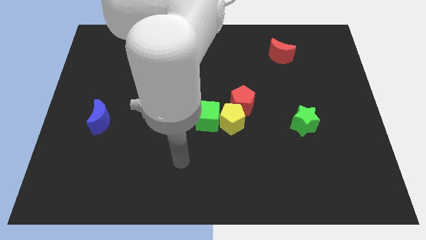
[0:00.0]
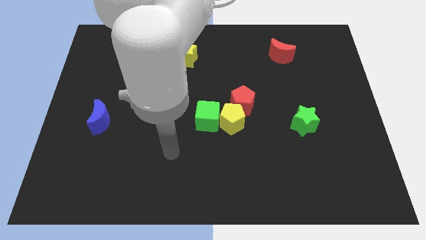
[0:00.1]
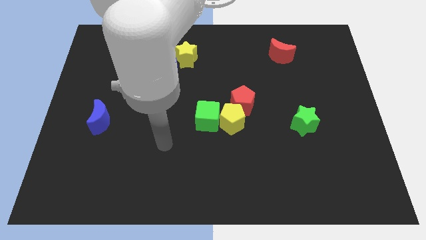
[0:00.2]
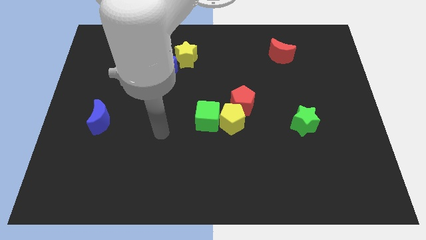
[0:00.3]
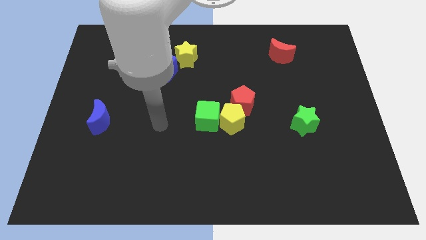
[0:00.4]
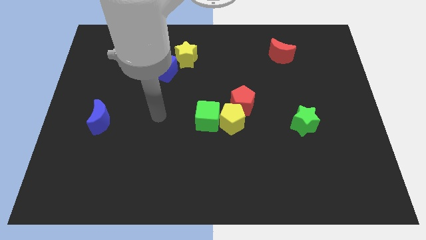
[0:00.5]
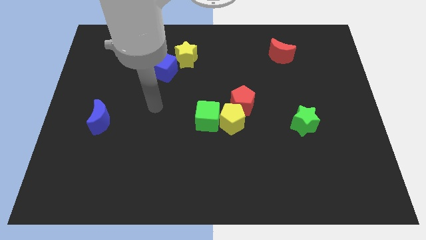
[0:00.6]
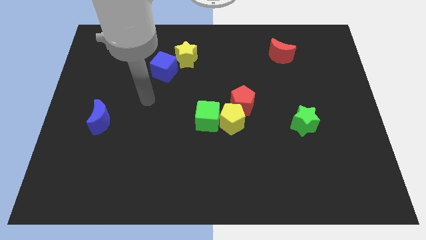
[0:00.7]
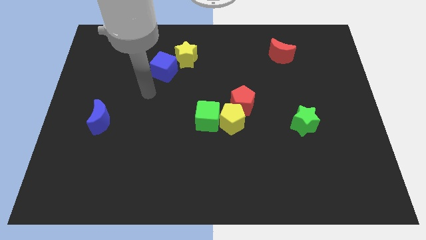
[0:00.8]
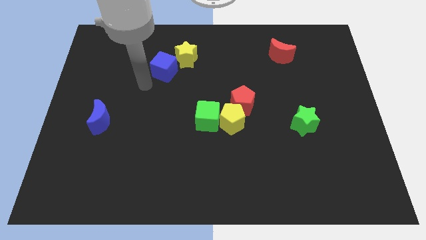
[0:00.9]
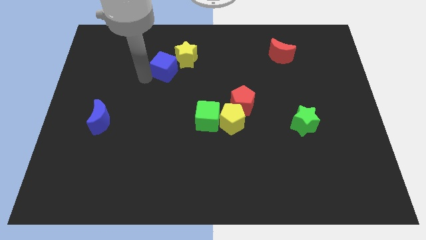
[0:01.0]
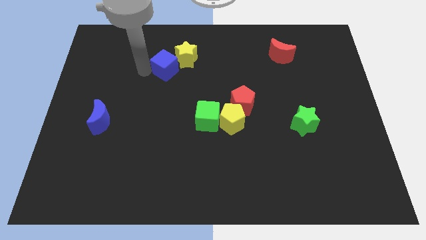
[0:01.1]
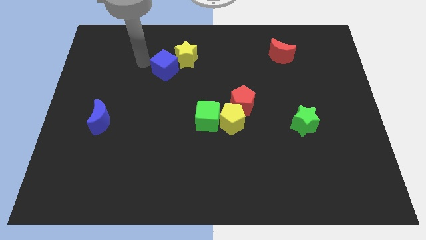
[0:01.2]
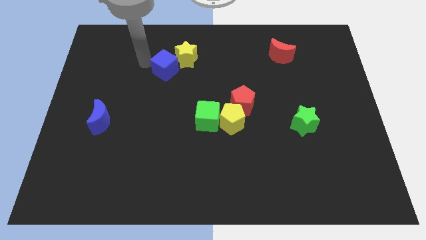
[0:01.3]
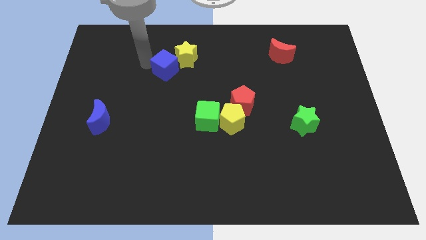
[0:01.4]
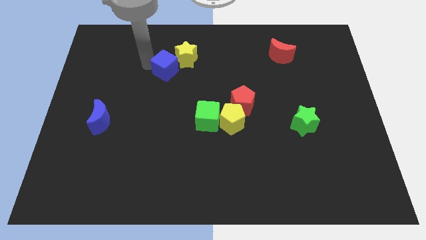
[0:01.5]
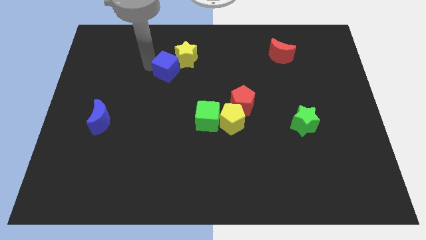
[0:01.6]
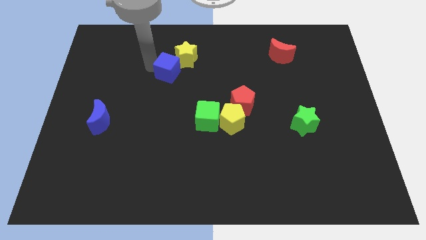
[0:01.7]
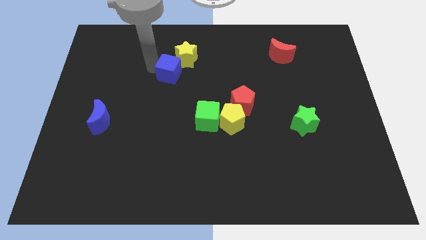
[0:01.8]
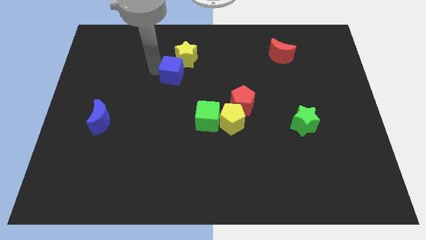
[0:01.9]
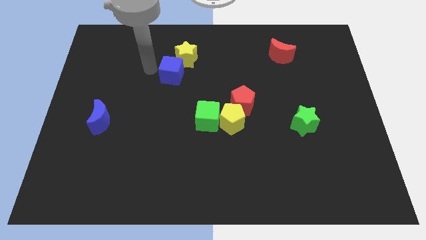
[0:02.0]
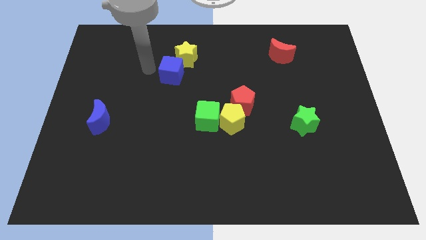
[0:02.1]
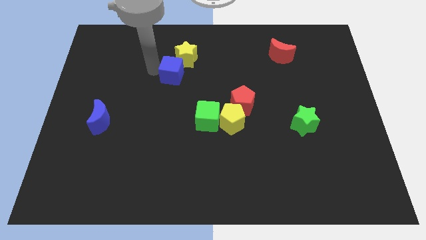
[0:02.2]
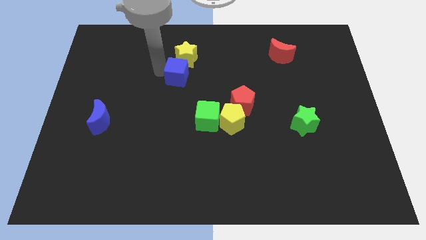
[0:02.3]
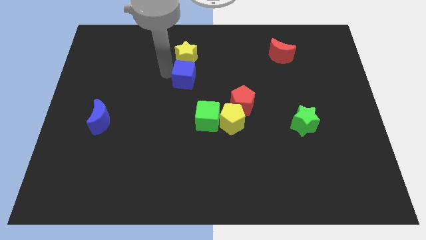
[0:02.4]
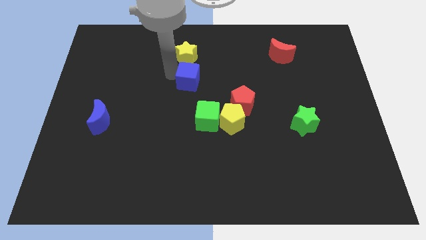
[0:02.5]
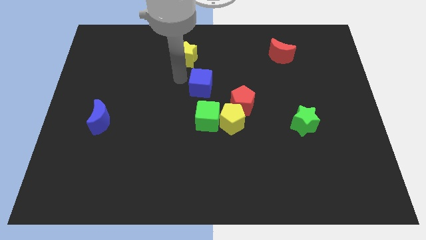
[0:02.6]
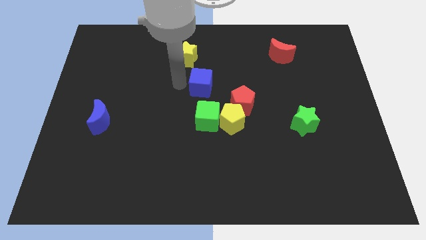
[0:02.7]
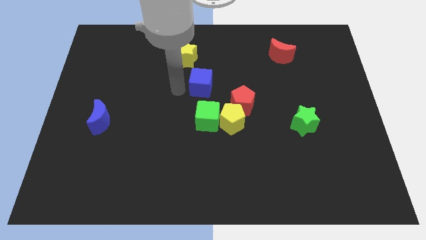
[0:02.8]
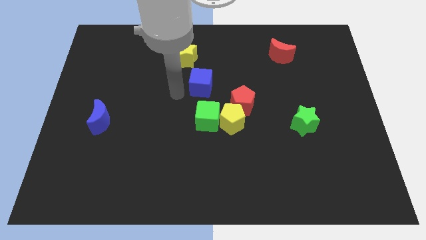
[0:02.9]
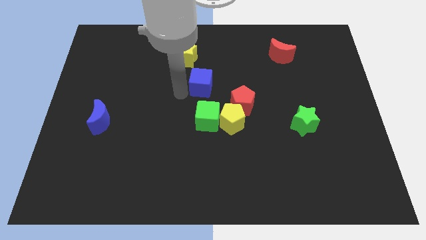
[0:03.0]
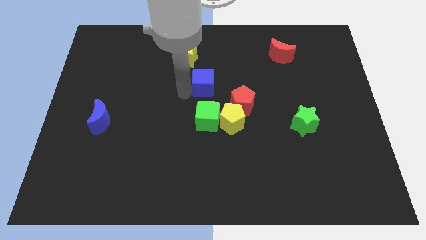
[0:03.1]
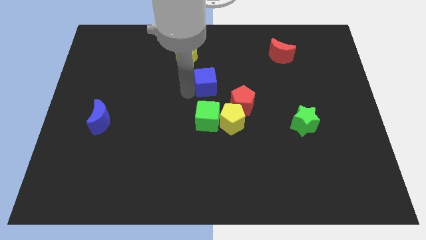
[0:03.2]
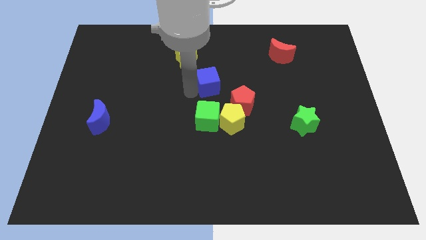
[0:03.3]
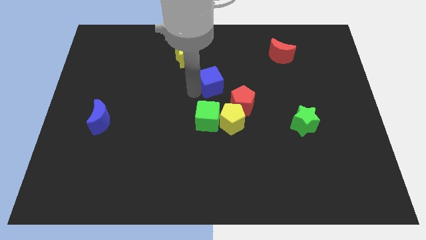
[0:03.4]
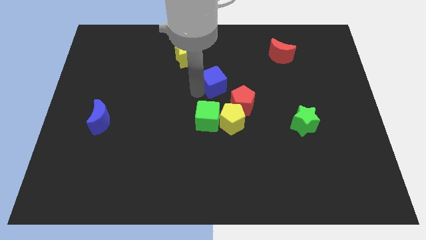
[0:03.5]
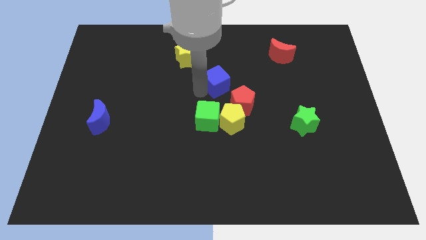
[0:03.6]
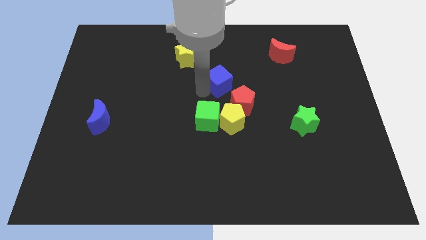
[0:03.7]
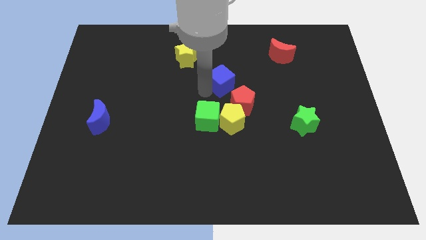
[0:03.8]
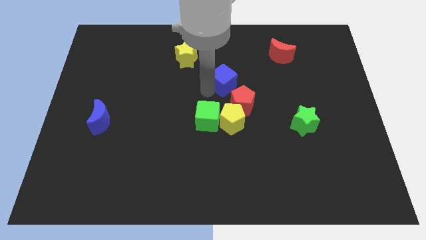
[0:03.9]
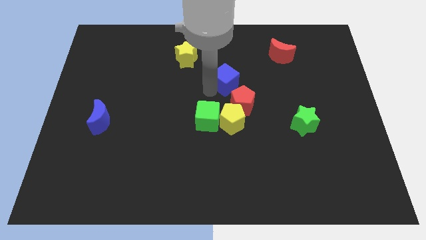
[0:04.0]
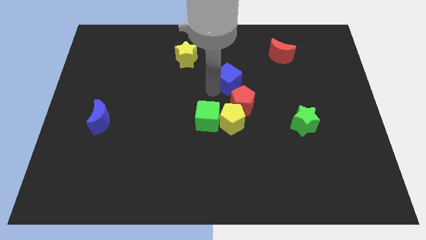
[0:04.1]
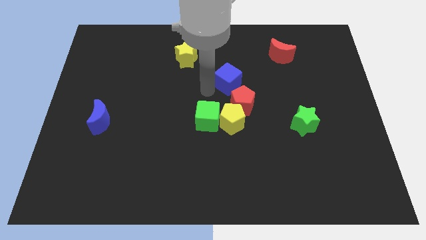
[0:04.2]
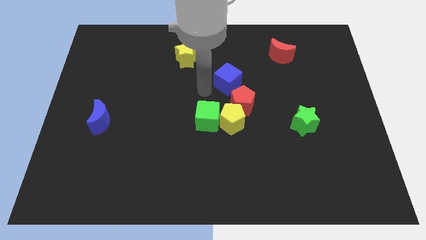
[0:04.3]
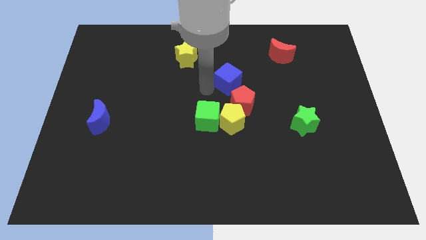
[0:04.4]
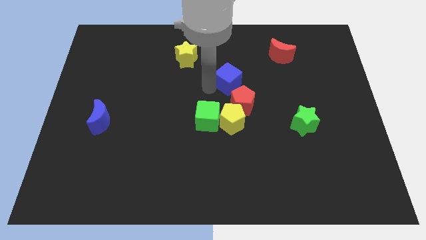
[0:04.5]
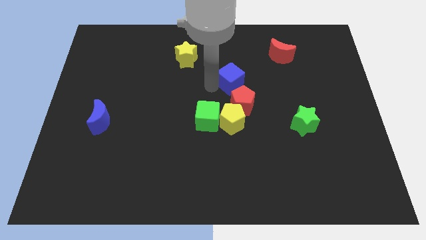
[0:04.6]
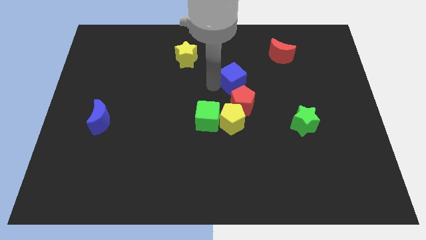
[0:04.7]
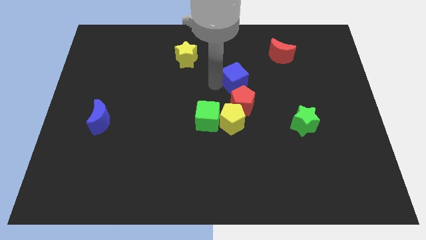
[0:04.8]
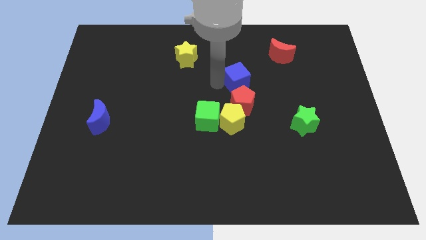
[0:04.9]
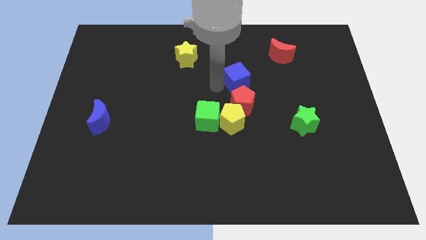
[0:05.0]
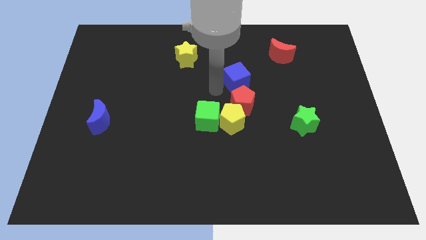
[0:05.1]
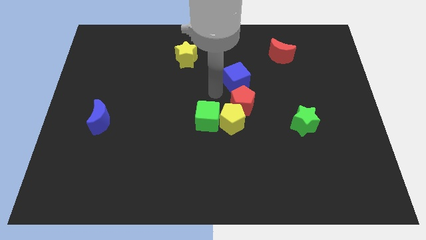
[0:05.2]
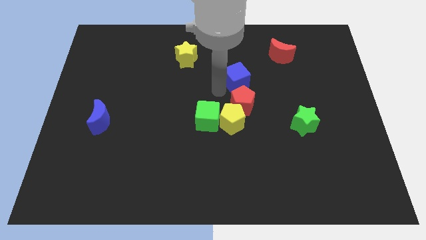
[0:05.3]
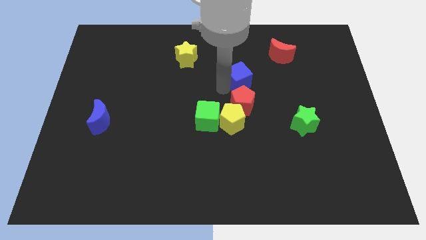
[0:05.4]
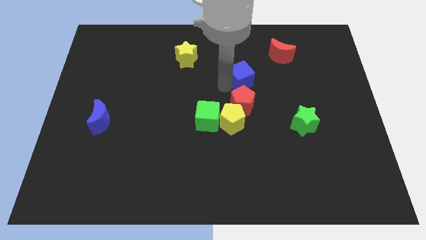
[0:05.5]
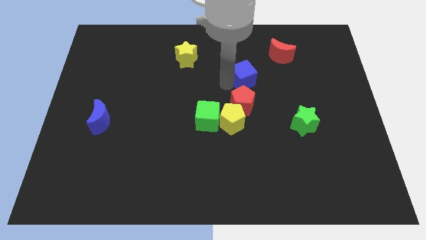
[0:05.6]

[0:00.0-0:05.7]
push the blue cube to the right

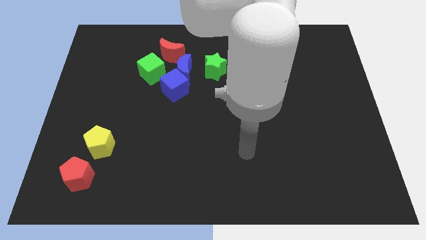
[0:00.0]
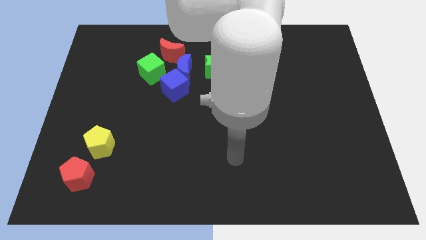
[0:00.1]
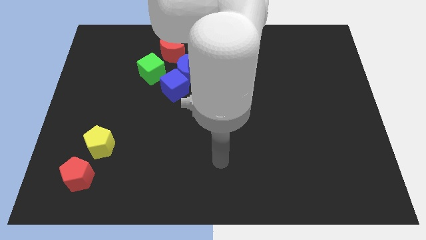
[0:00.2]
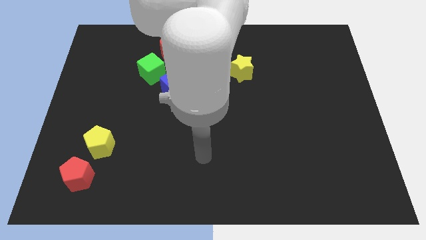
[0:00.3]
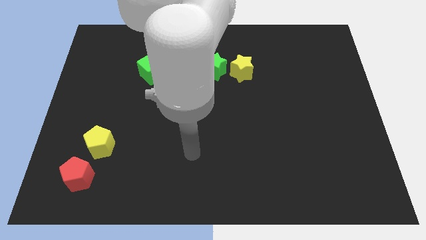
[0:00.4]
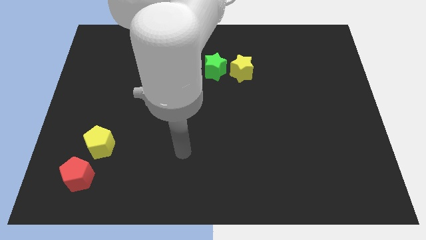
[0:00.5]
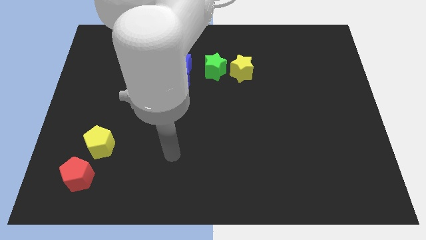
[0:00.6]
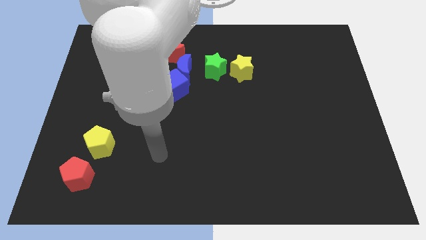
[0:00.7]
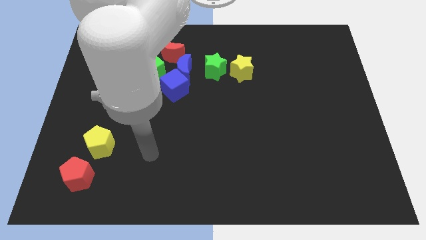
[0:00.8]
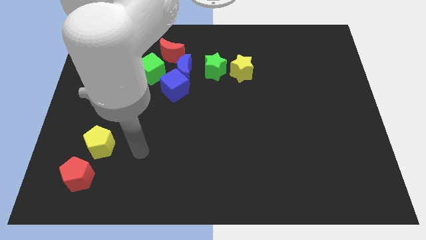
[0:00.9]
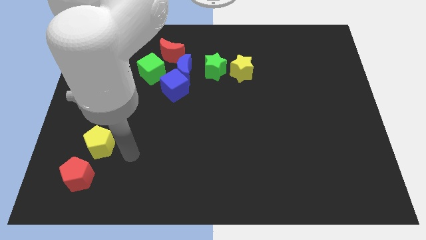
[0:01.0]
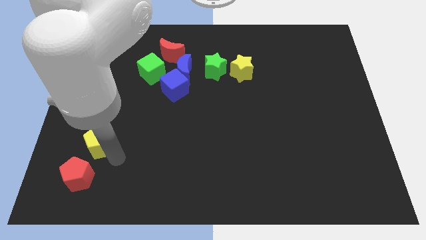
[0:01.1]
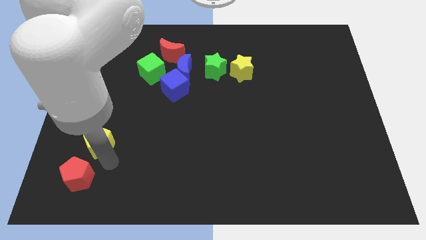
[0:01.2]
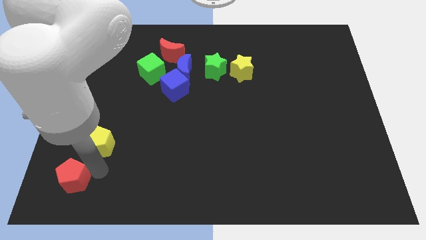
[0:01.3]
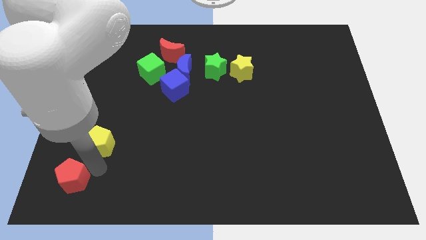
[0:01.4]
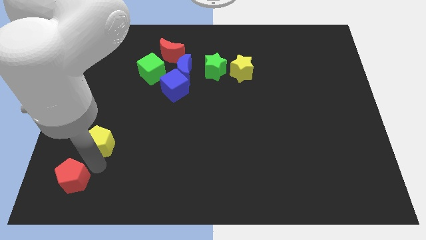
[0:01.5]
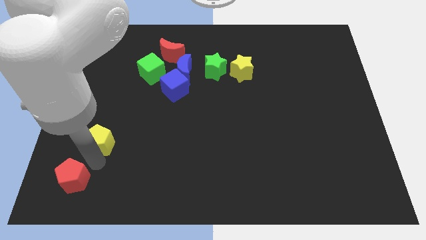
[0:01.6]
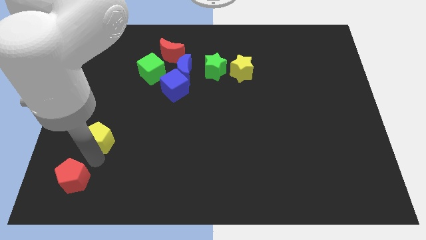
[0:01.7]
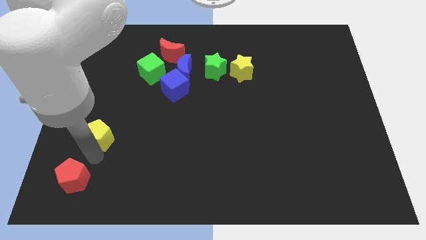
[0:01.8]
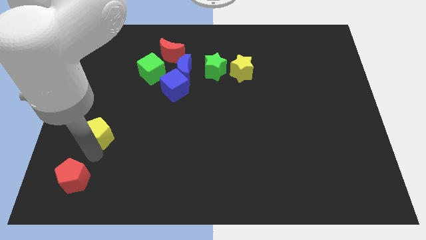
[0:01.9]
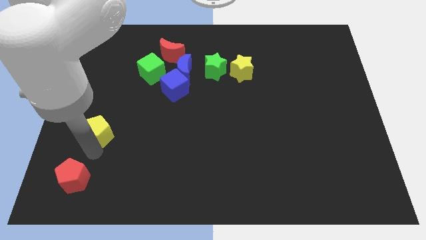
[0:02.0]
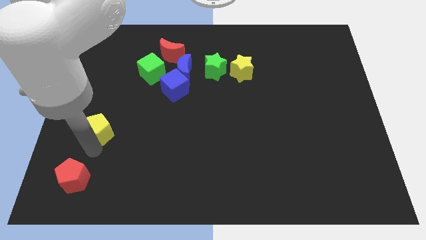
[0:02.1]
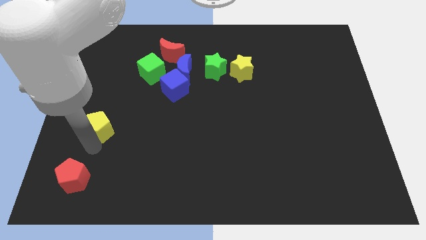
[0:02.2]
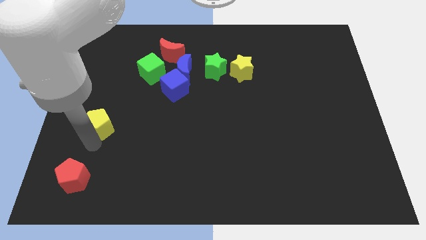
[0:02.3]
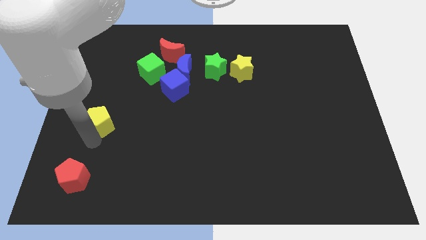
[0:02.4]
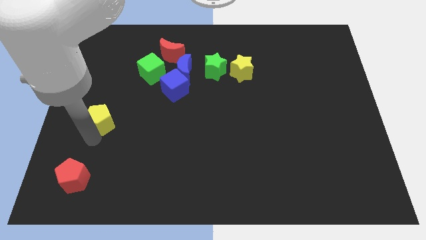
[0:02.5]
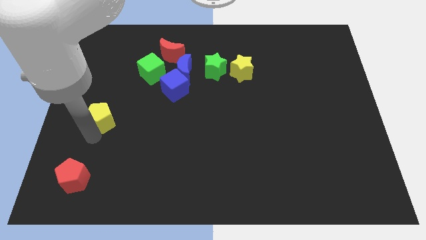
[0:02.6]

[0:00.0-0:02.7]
move the yellow pentagon up somewhat

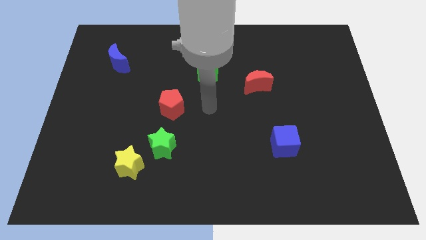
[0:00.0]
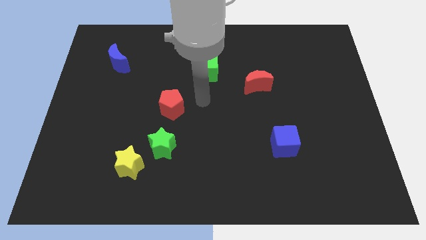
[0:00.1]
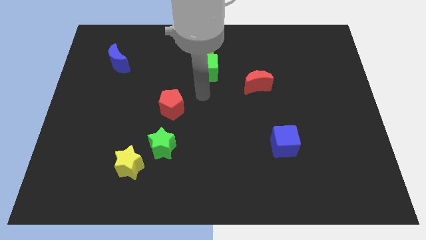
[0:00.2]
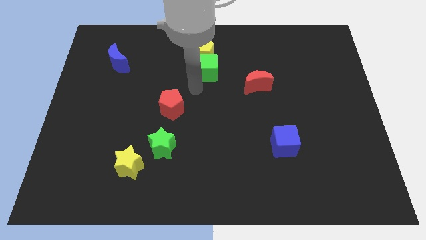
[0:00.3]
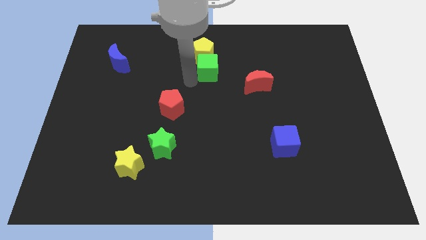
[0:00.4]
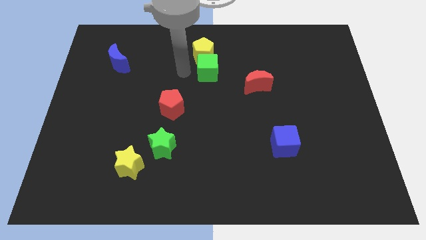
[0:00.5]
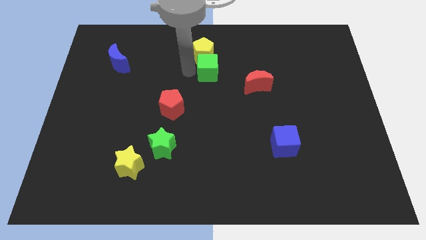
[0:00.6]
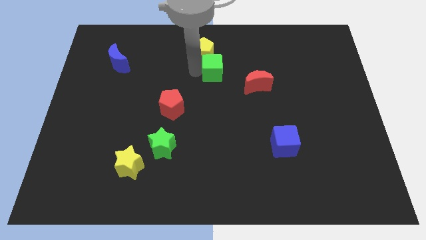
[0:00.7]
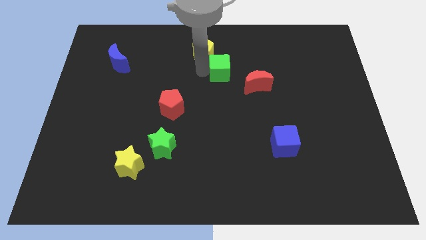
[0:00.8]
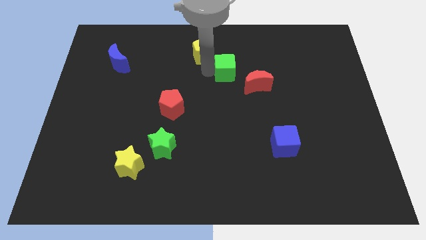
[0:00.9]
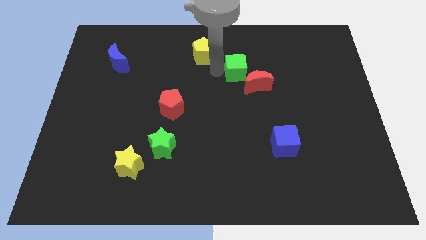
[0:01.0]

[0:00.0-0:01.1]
push the green cube to the right a little bit
